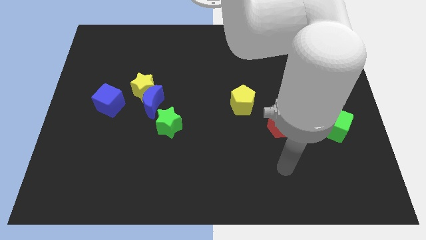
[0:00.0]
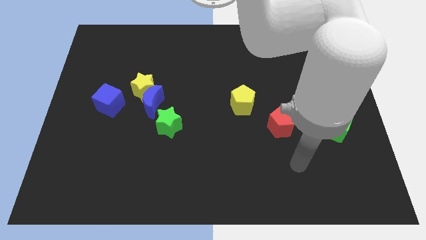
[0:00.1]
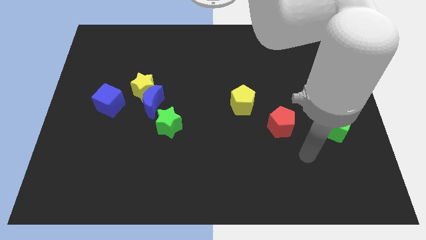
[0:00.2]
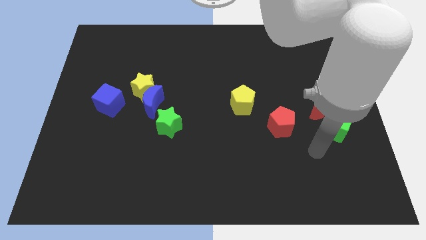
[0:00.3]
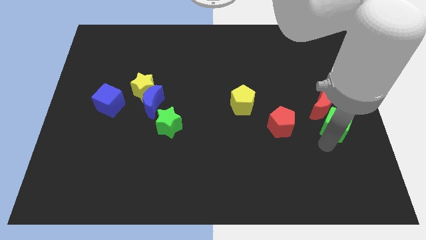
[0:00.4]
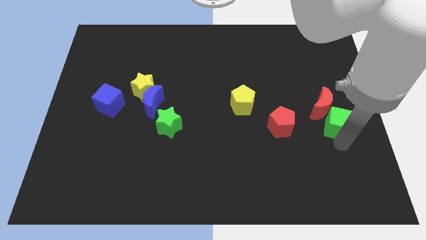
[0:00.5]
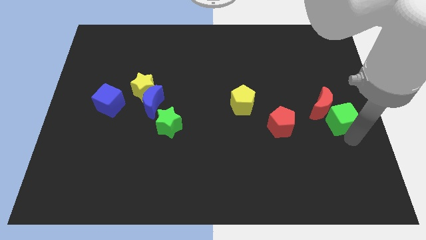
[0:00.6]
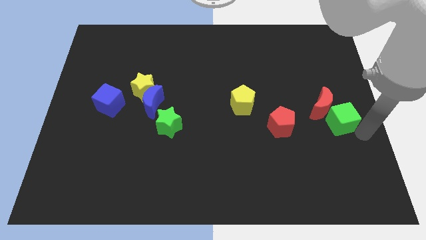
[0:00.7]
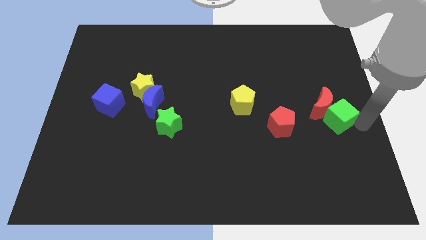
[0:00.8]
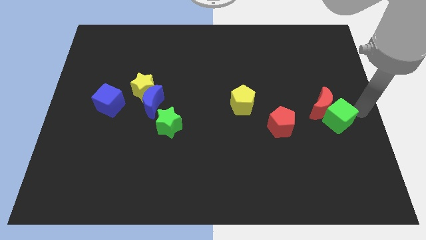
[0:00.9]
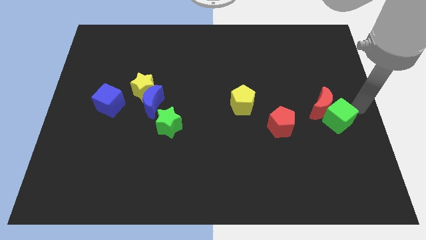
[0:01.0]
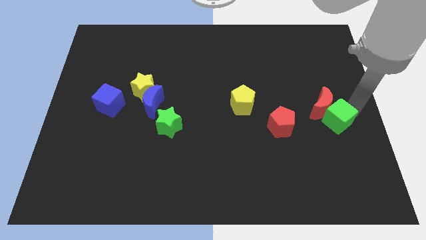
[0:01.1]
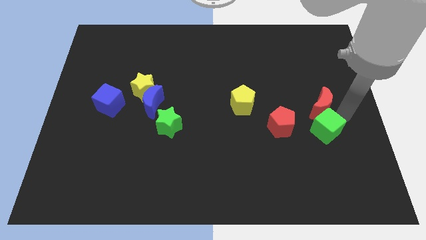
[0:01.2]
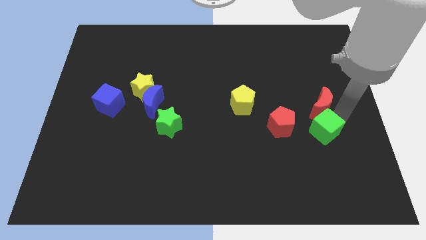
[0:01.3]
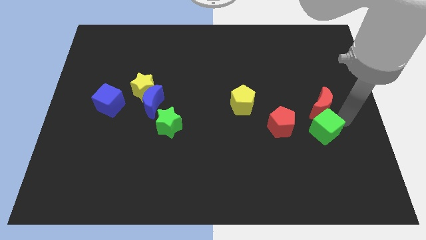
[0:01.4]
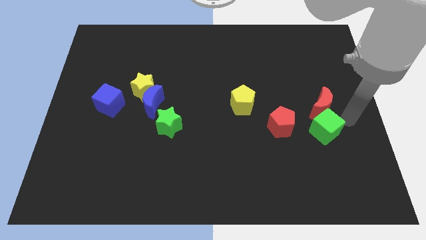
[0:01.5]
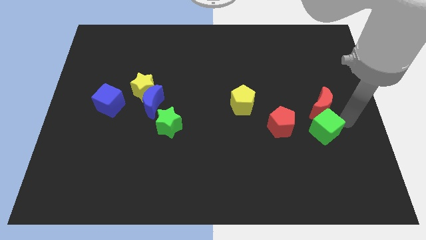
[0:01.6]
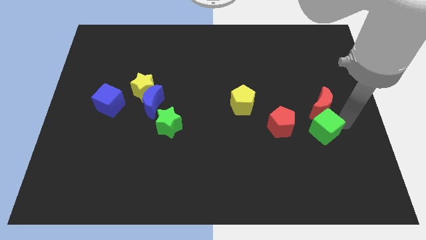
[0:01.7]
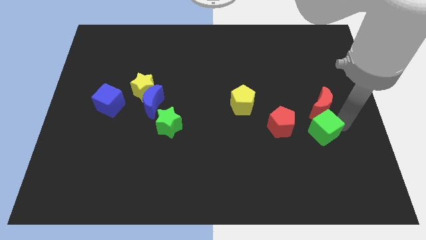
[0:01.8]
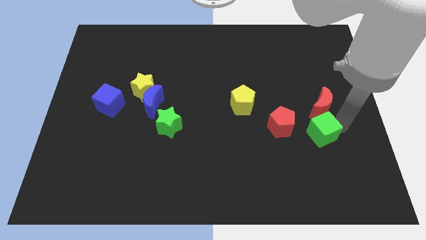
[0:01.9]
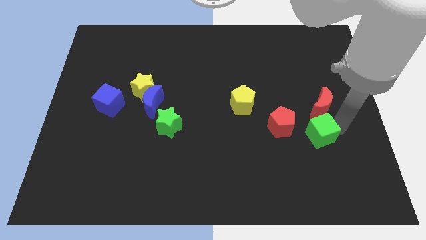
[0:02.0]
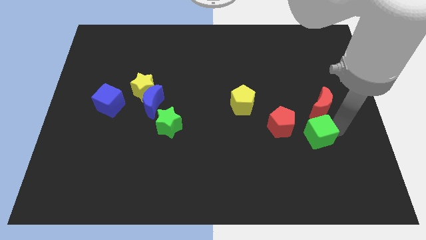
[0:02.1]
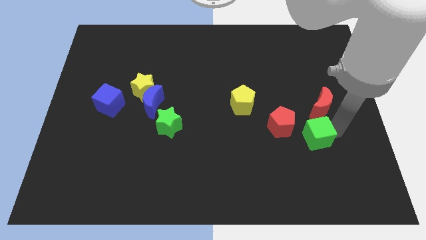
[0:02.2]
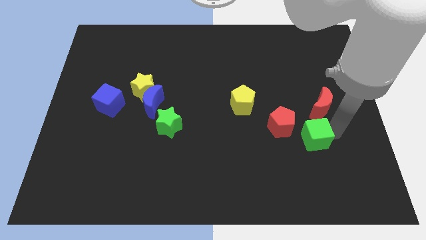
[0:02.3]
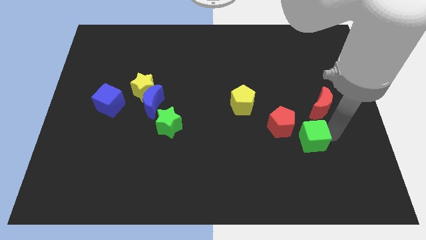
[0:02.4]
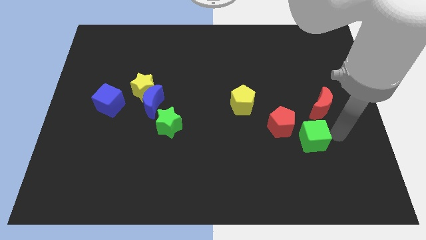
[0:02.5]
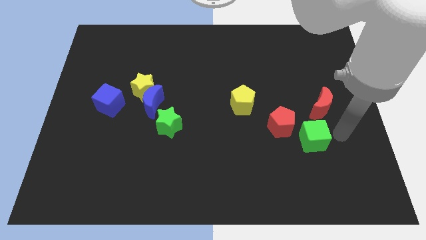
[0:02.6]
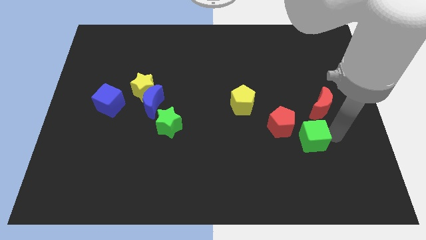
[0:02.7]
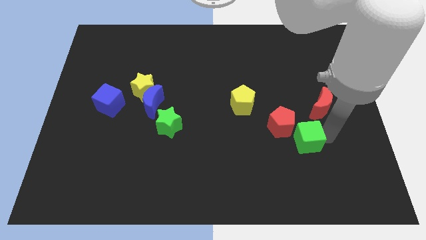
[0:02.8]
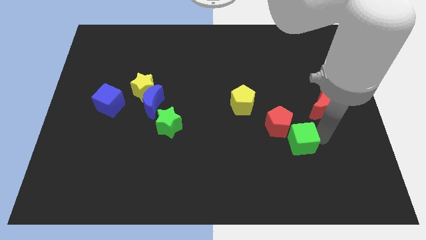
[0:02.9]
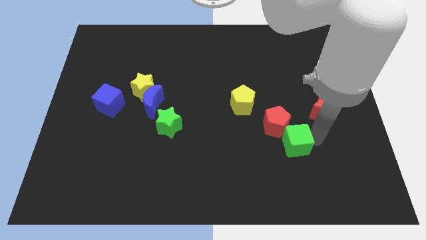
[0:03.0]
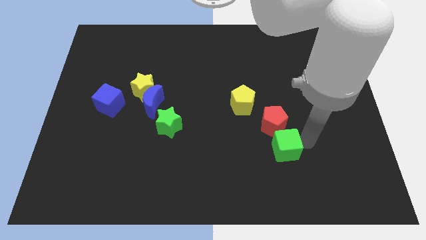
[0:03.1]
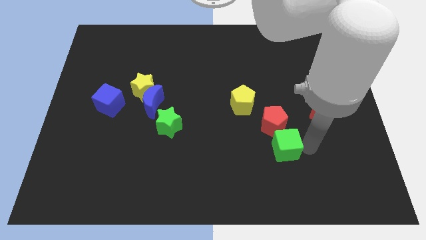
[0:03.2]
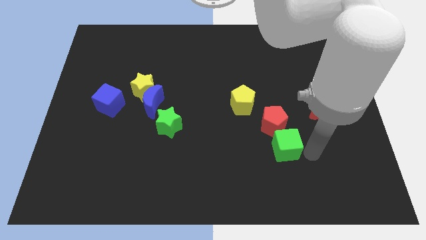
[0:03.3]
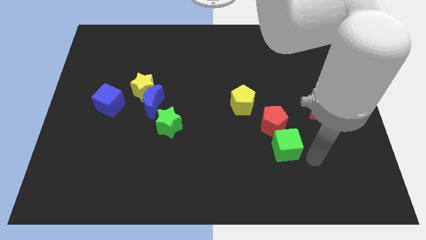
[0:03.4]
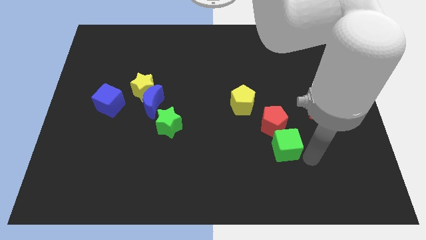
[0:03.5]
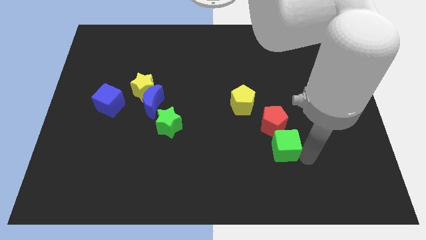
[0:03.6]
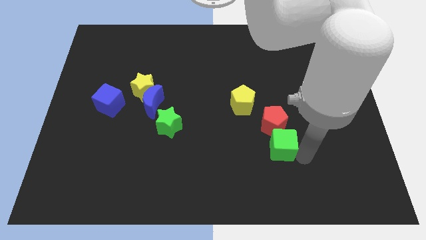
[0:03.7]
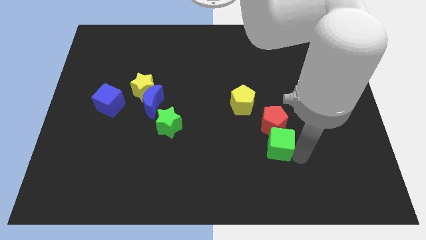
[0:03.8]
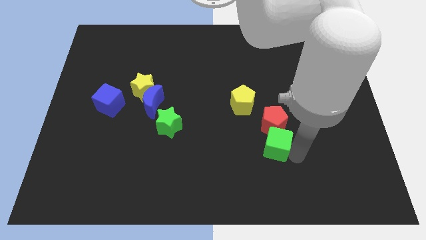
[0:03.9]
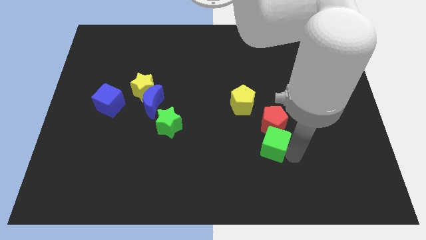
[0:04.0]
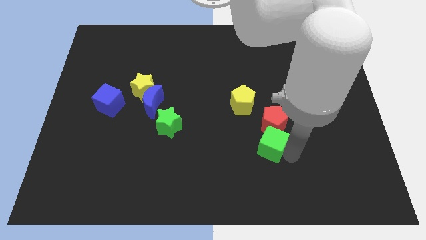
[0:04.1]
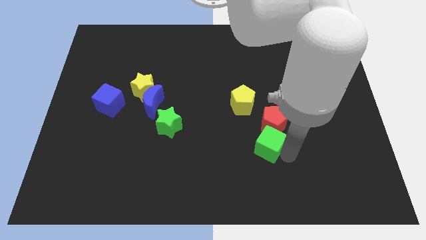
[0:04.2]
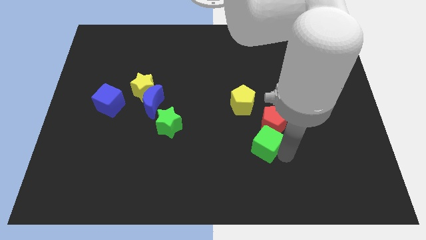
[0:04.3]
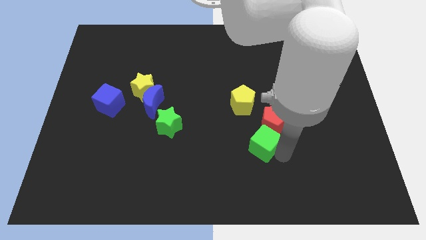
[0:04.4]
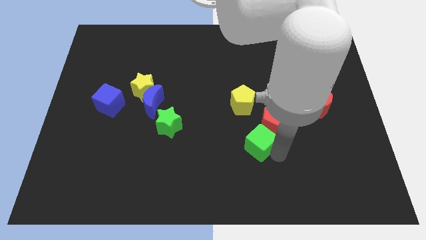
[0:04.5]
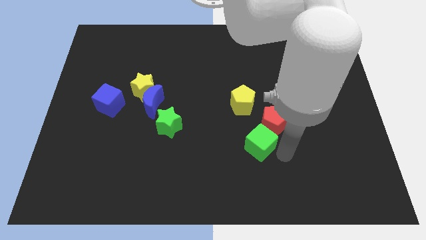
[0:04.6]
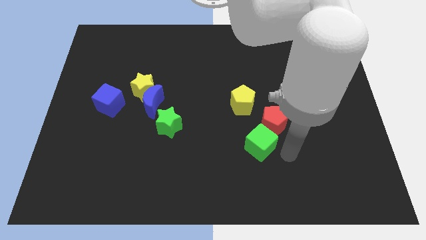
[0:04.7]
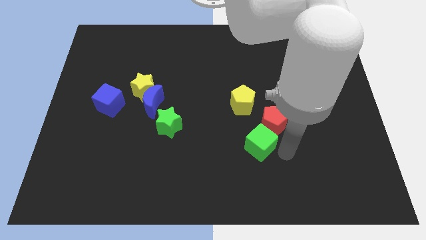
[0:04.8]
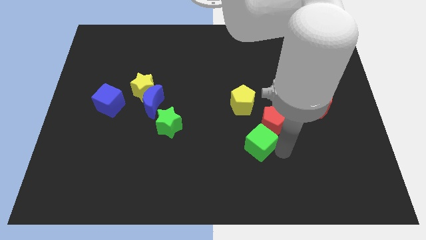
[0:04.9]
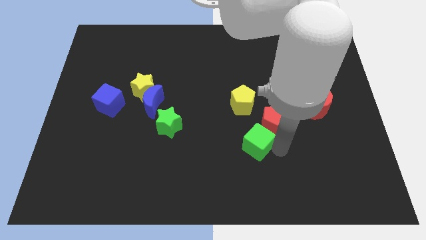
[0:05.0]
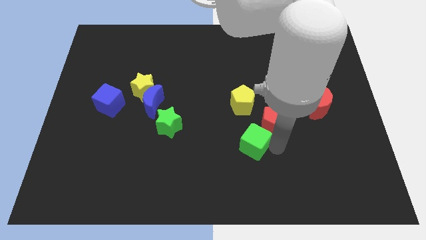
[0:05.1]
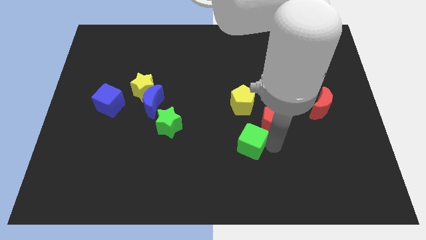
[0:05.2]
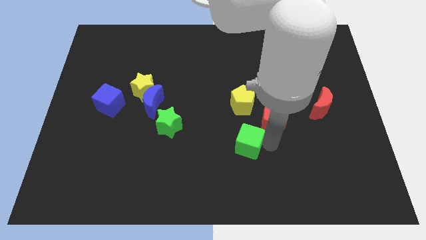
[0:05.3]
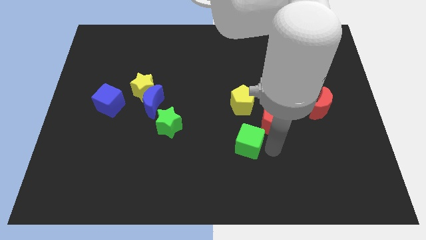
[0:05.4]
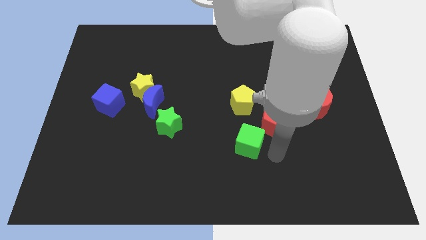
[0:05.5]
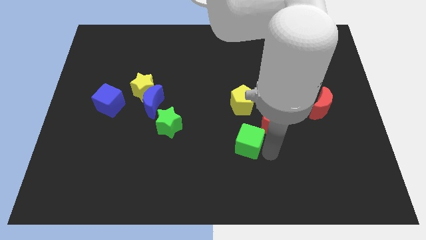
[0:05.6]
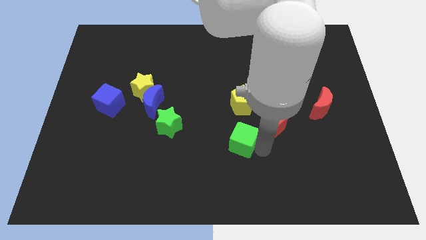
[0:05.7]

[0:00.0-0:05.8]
push the green cube left

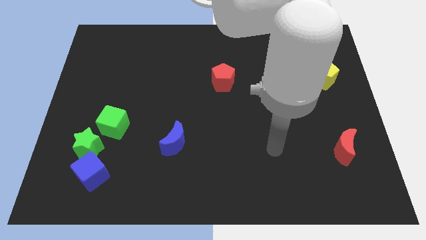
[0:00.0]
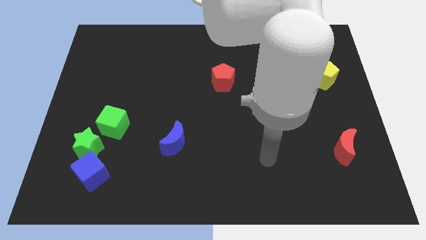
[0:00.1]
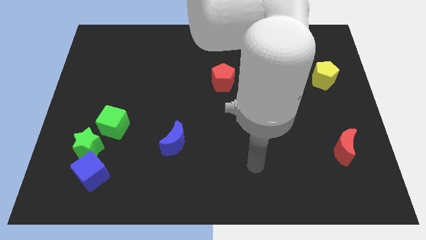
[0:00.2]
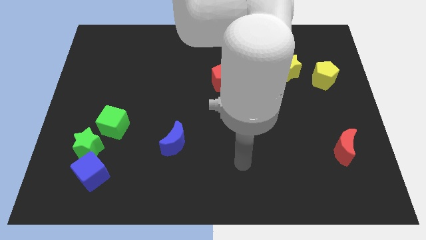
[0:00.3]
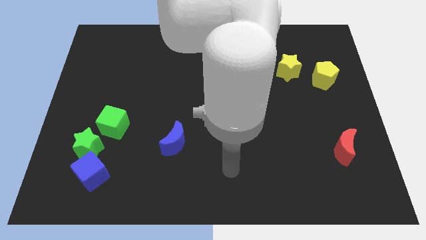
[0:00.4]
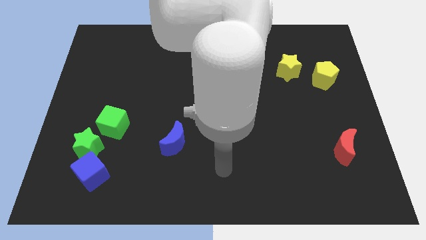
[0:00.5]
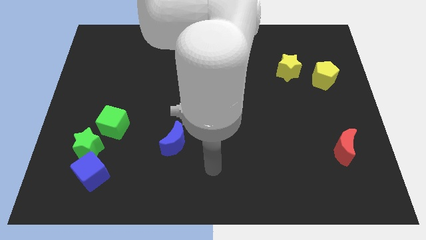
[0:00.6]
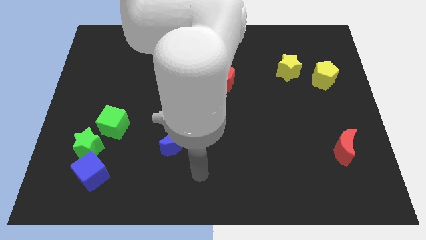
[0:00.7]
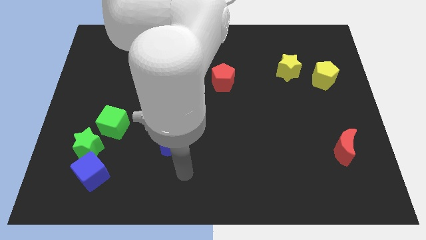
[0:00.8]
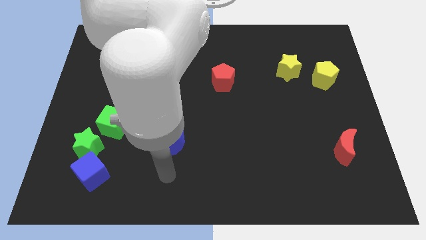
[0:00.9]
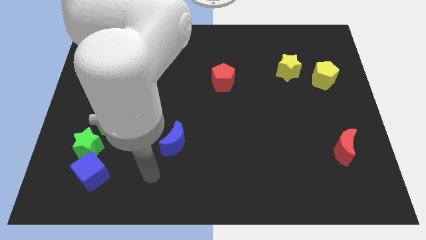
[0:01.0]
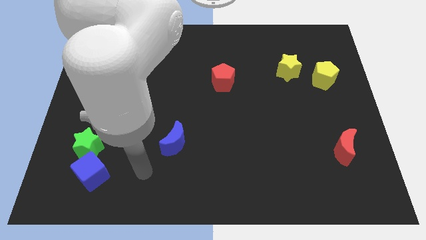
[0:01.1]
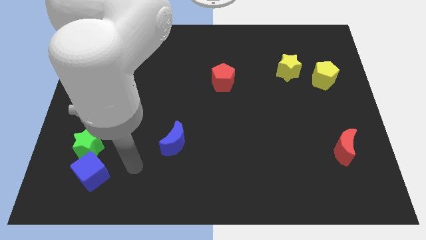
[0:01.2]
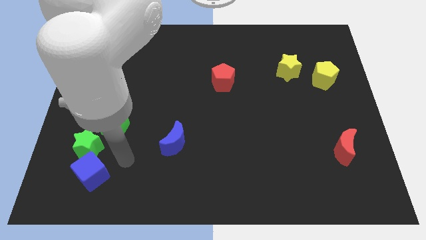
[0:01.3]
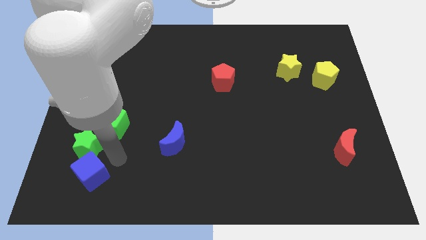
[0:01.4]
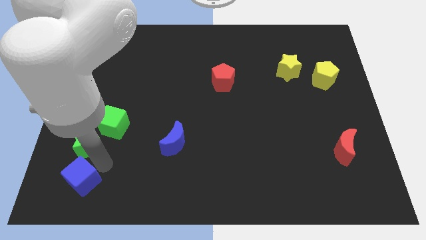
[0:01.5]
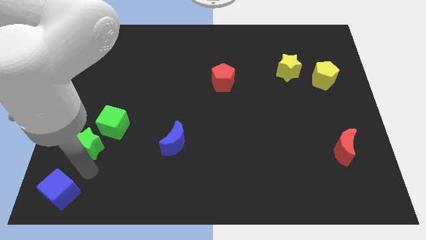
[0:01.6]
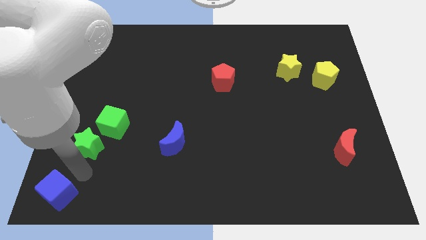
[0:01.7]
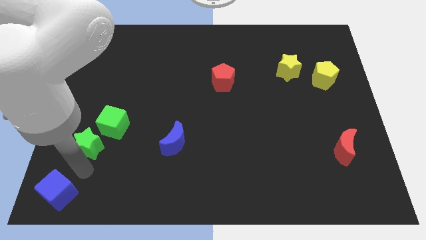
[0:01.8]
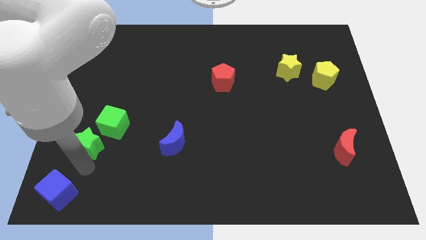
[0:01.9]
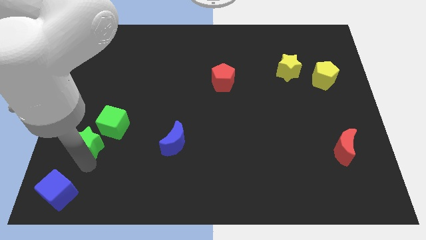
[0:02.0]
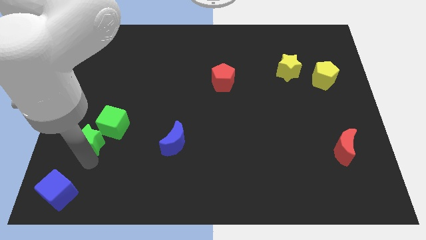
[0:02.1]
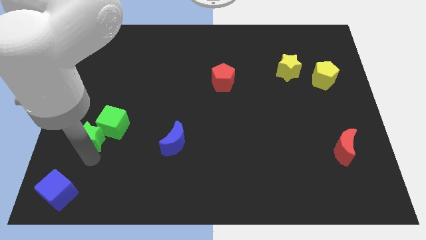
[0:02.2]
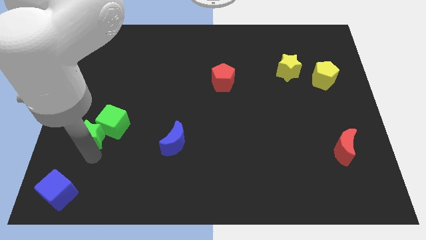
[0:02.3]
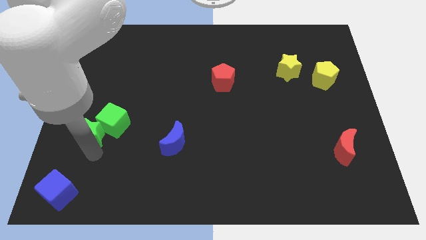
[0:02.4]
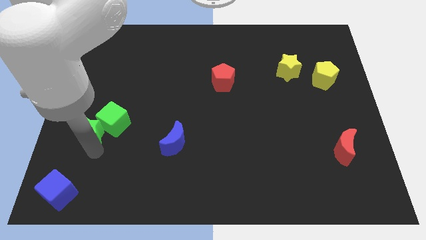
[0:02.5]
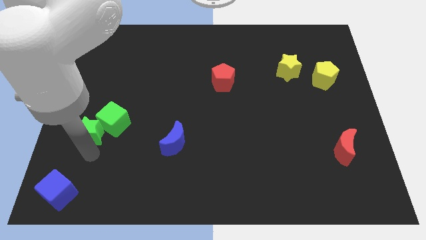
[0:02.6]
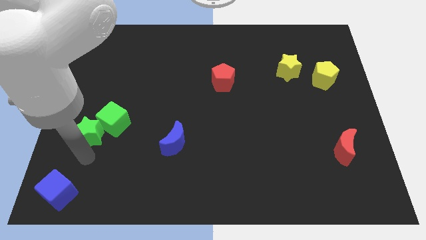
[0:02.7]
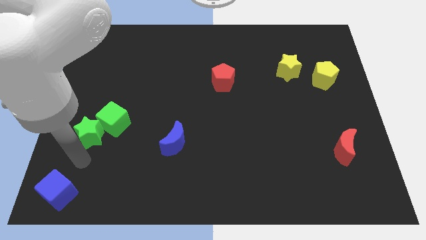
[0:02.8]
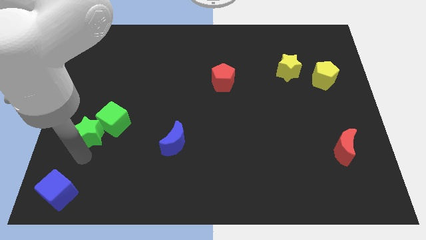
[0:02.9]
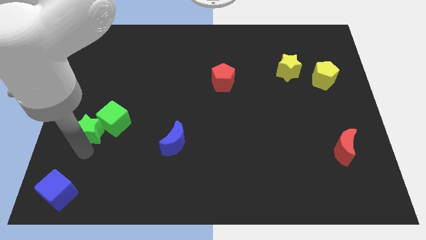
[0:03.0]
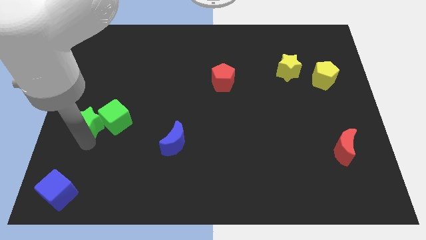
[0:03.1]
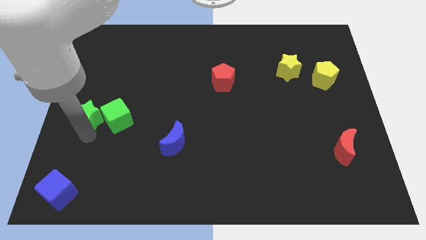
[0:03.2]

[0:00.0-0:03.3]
slightly push the green star up
